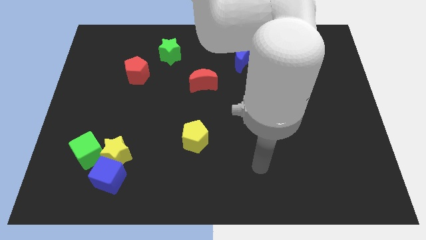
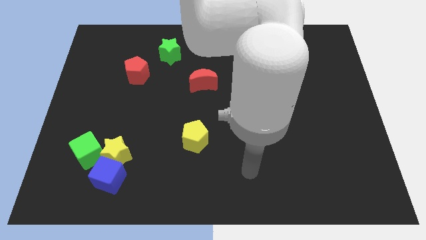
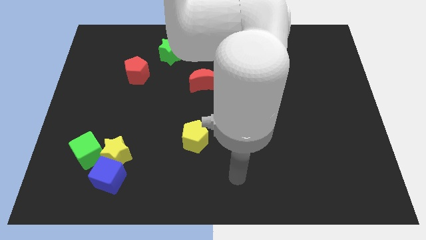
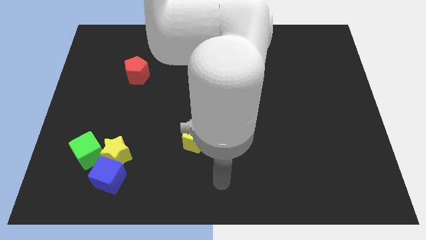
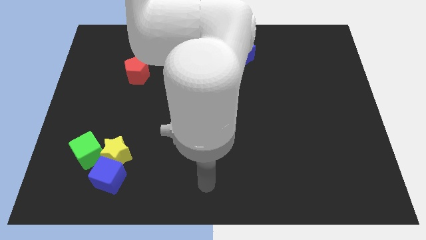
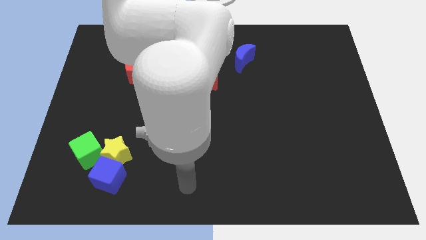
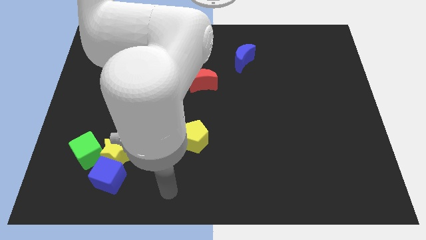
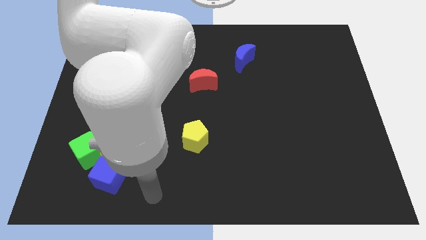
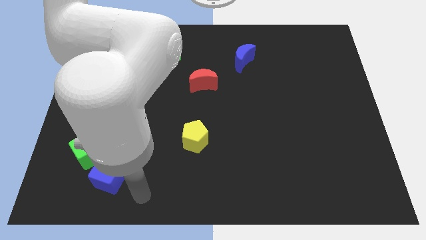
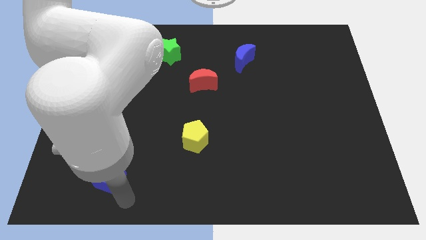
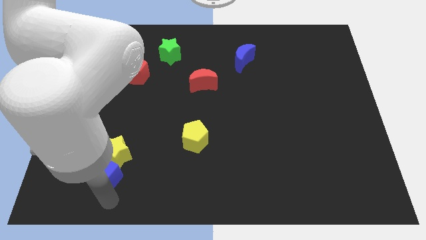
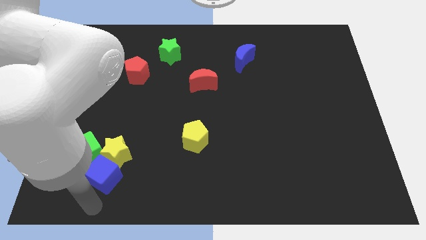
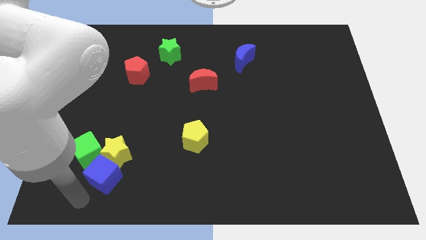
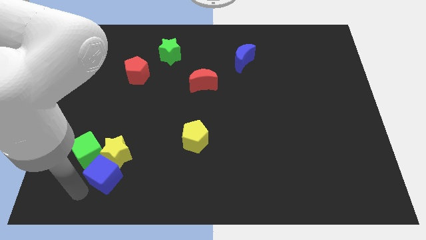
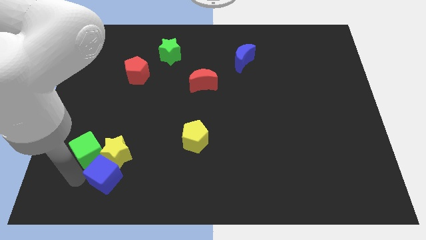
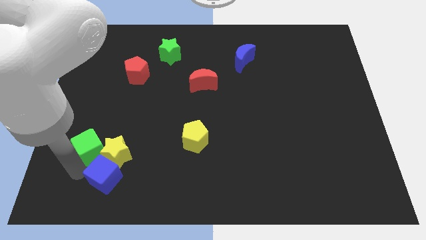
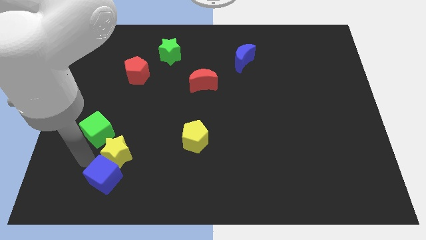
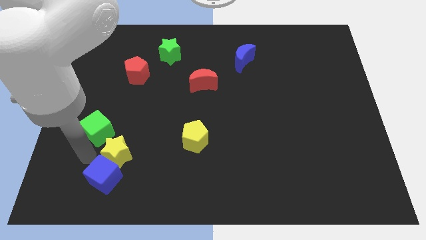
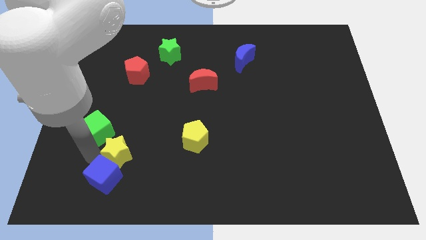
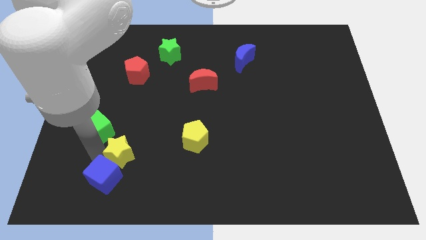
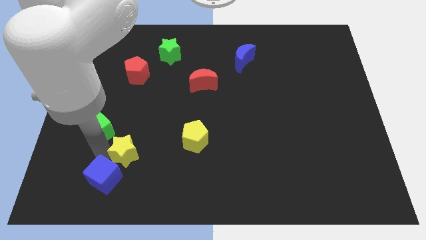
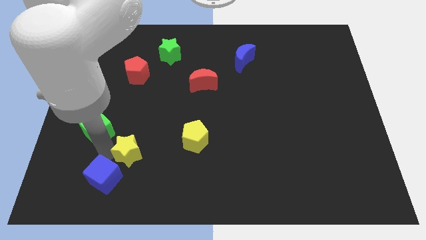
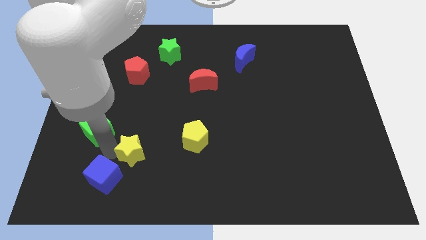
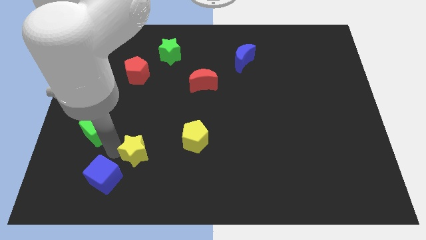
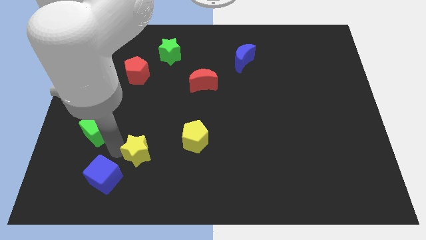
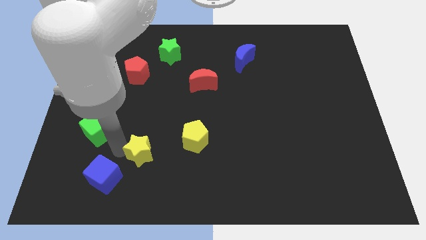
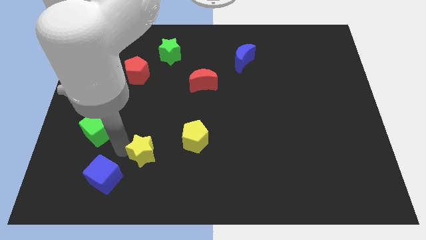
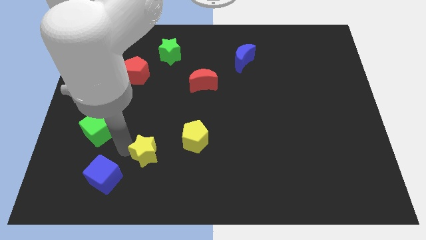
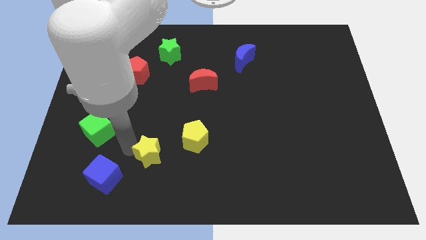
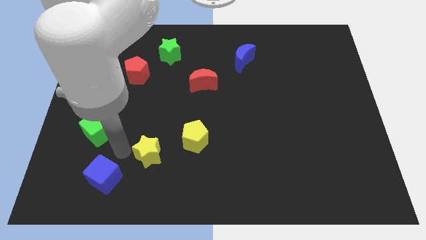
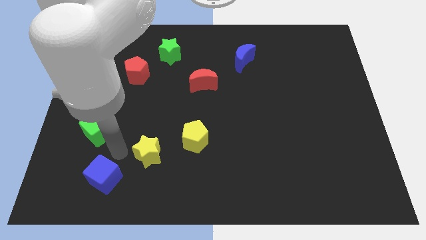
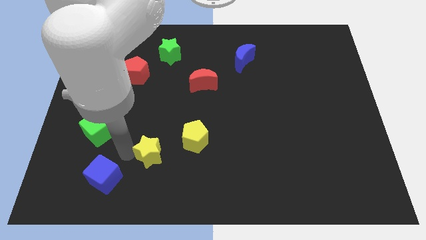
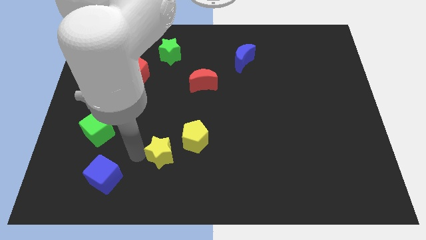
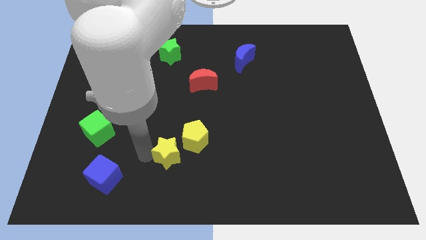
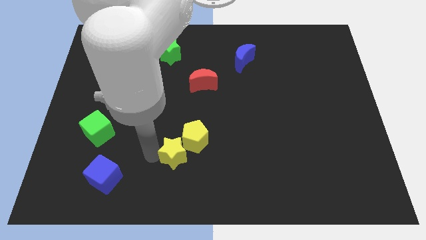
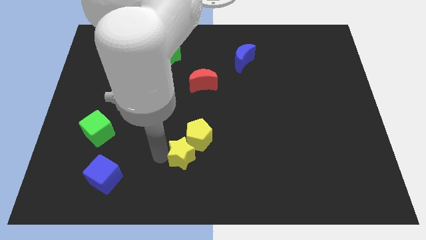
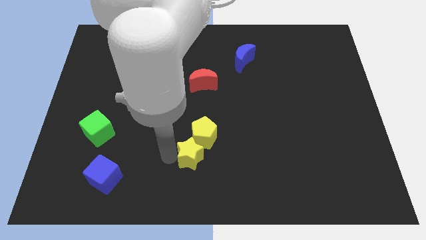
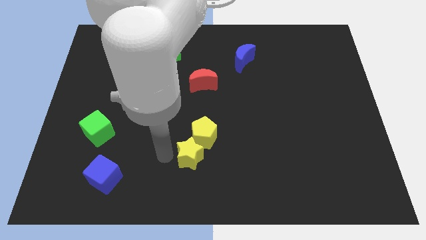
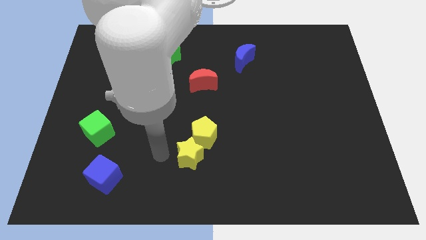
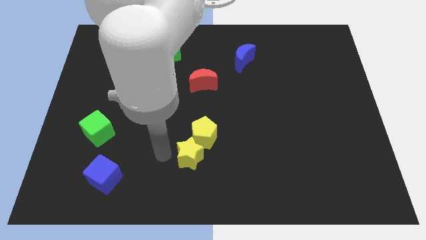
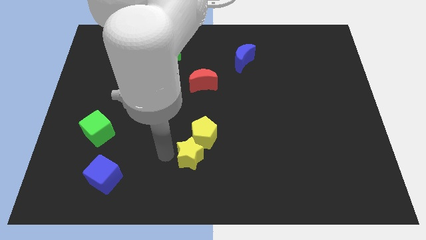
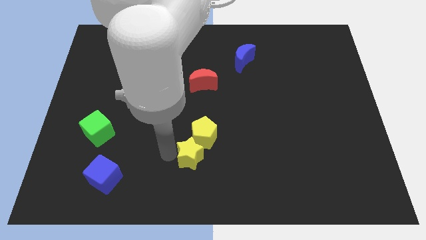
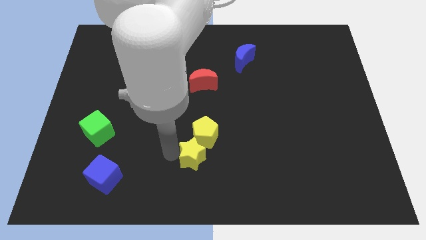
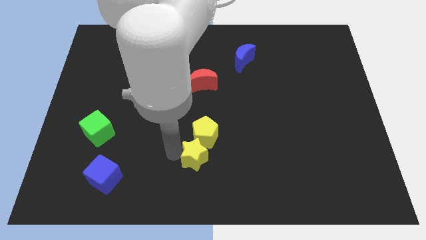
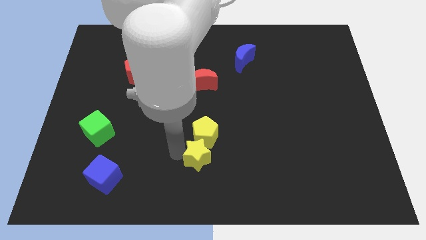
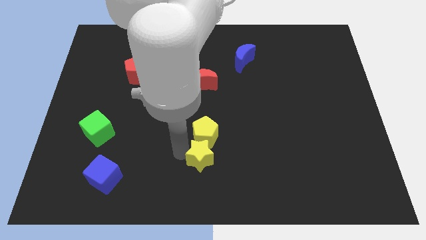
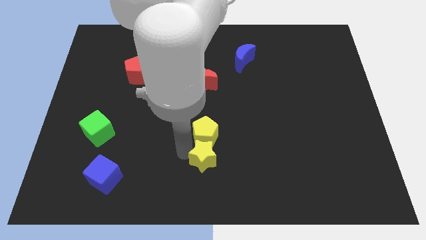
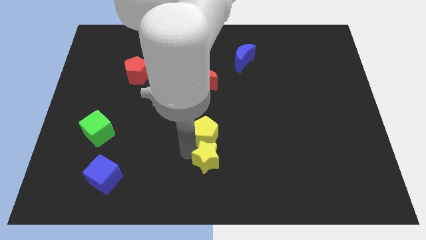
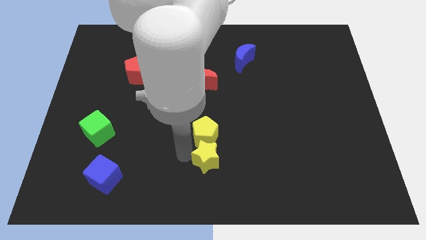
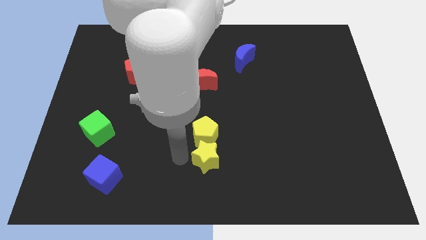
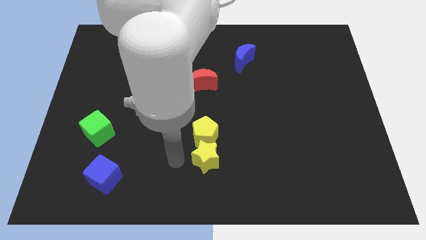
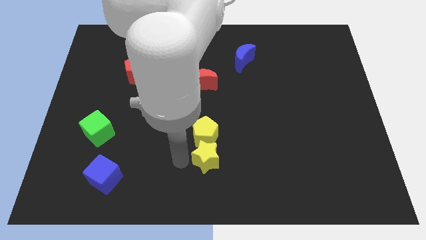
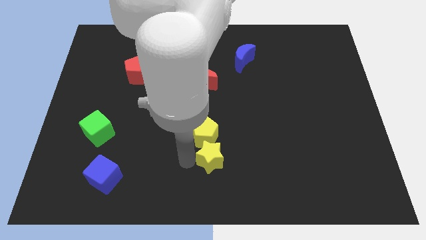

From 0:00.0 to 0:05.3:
push the yellow star right

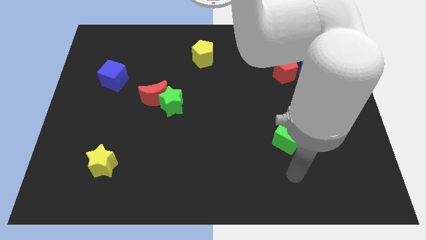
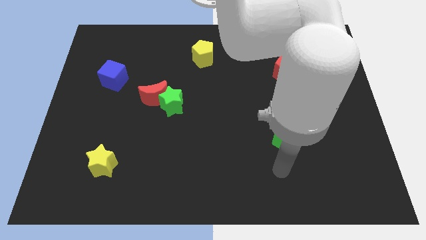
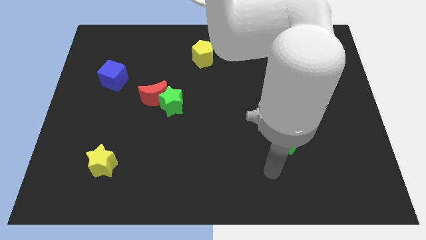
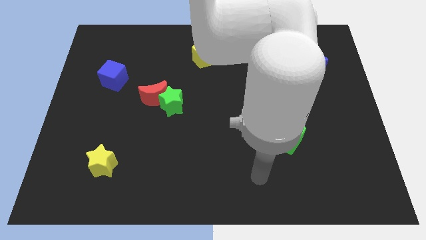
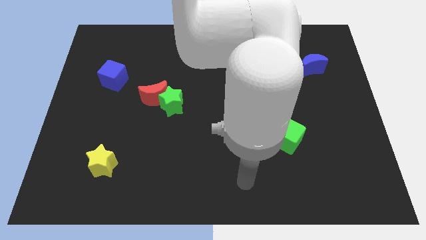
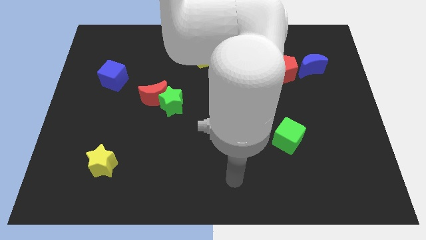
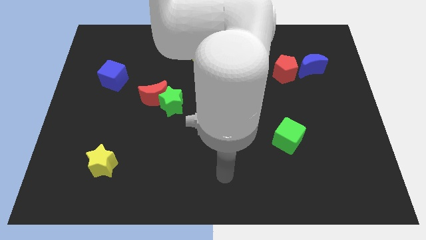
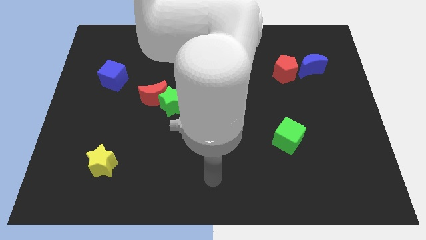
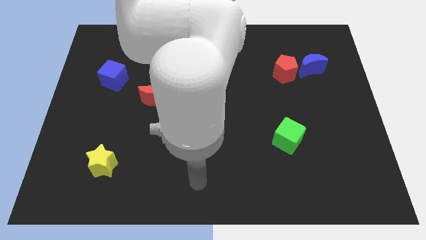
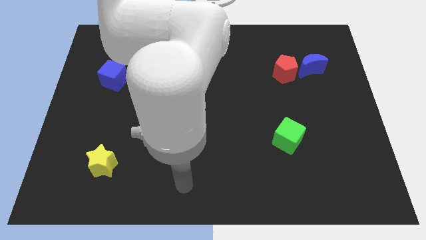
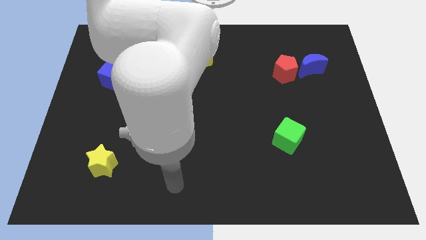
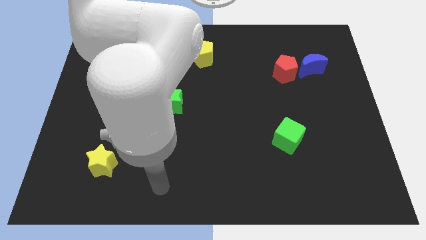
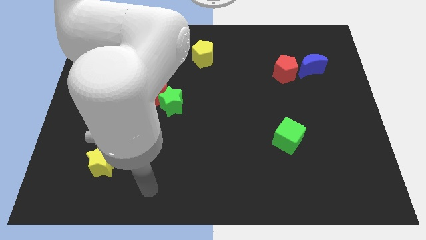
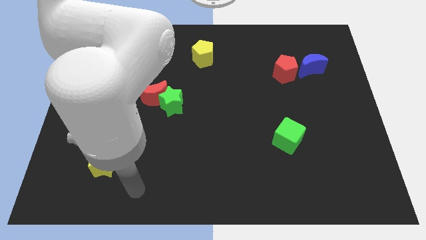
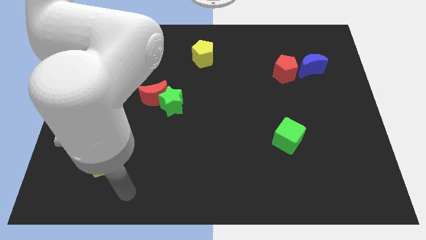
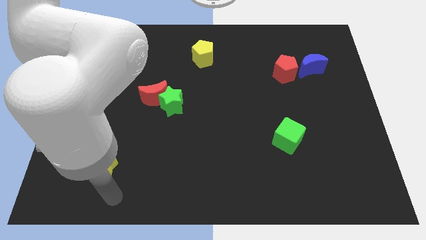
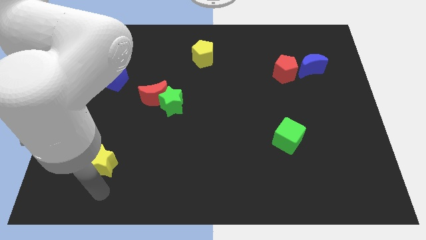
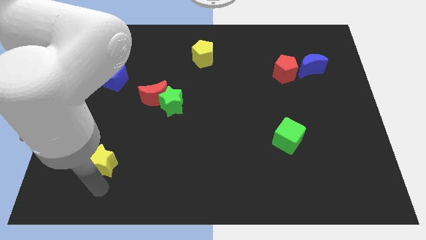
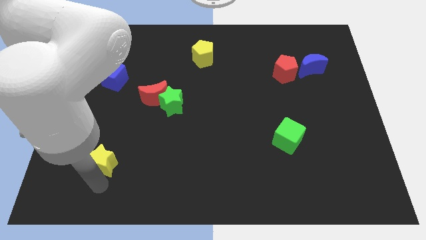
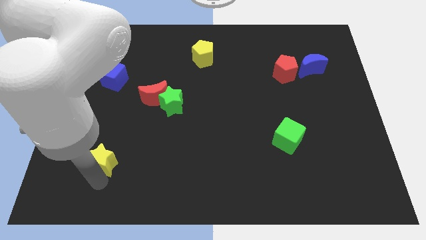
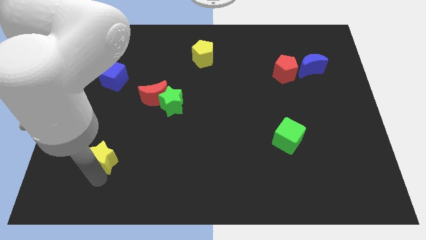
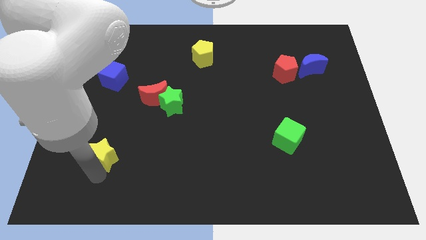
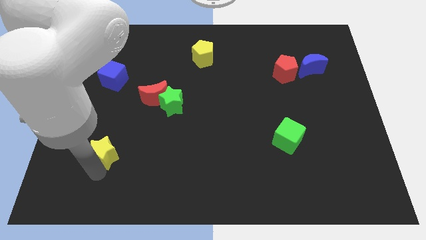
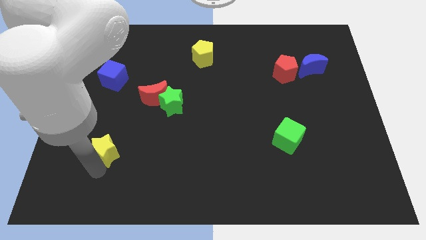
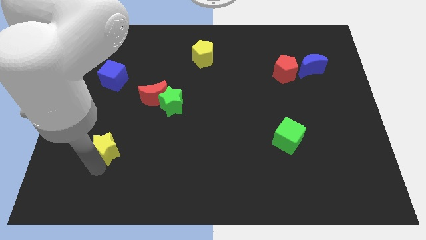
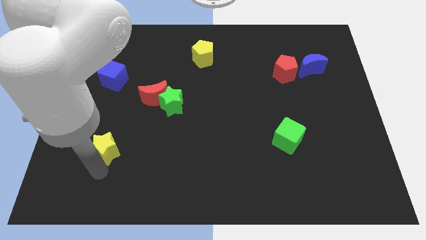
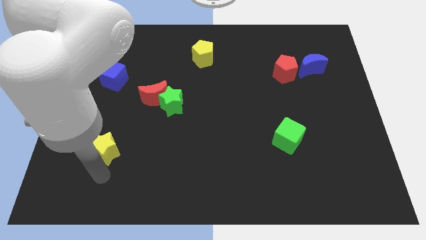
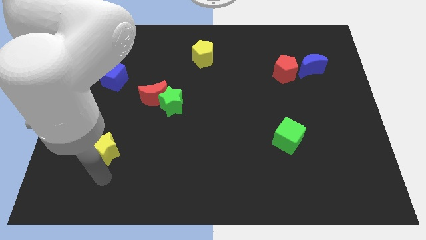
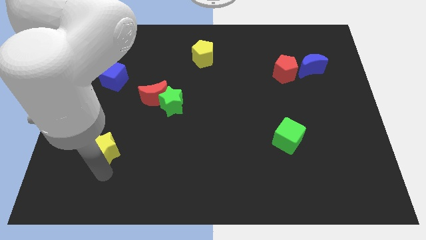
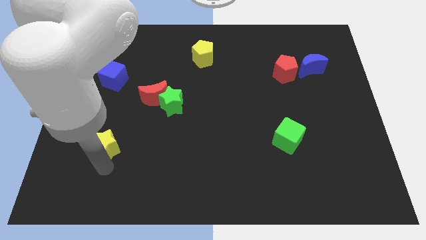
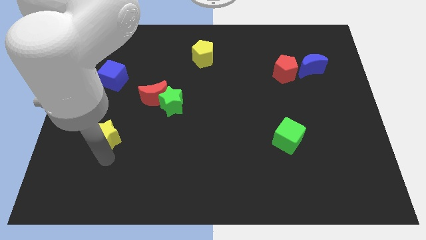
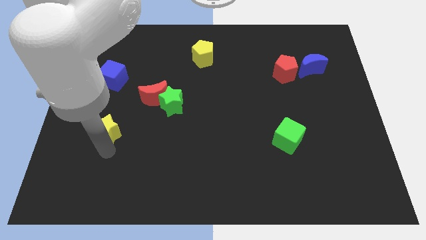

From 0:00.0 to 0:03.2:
slide the yellow star upwards a bit
